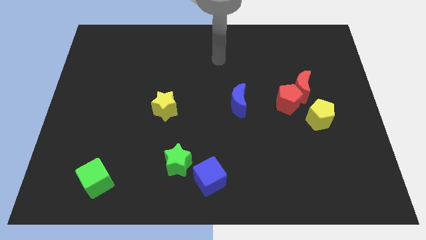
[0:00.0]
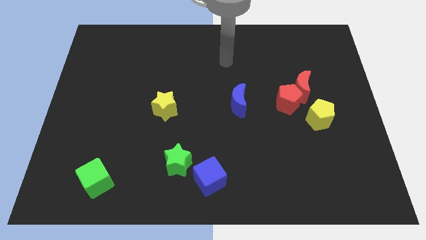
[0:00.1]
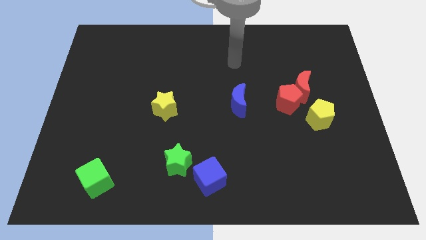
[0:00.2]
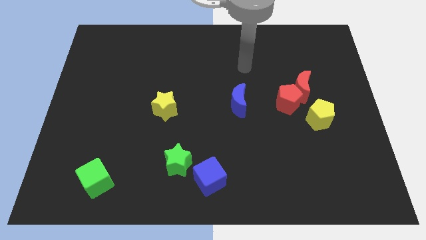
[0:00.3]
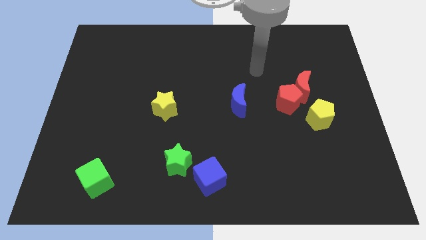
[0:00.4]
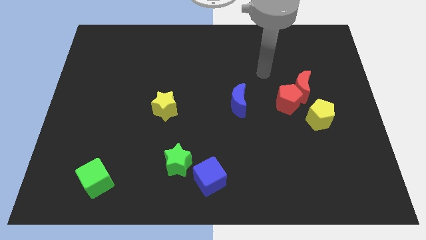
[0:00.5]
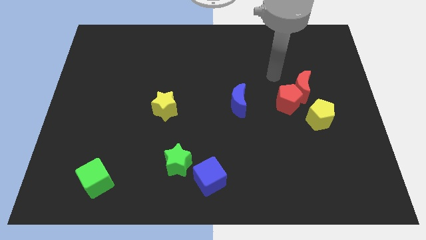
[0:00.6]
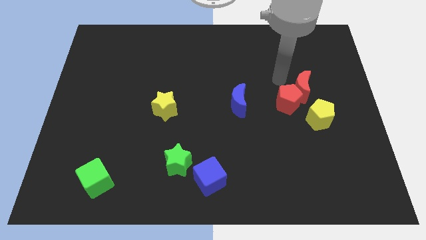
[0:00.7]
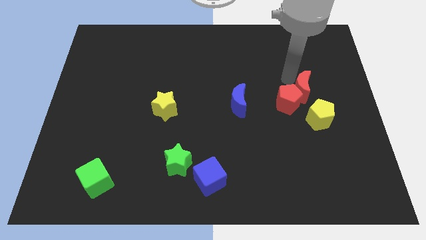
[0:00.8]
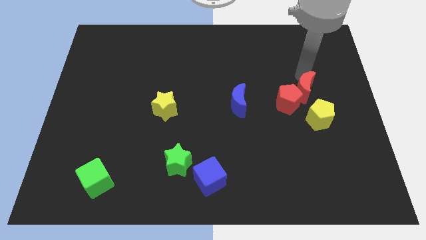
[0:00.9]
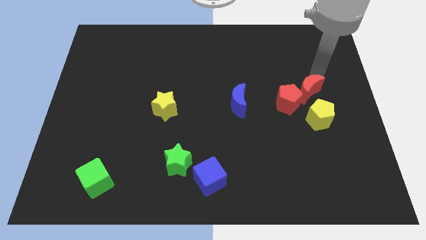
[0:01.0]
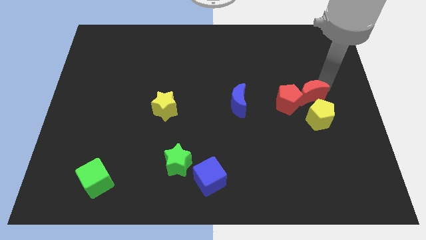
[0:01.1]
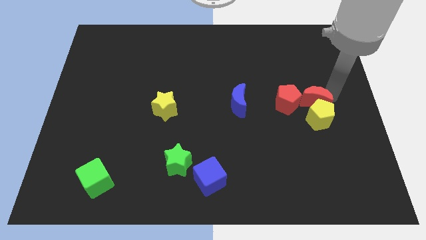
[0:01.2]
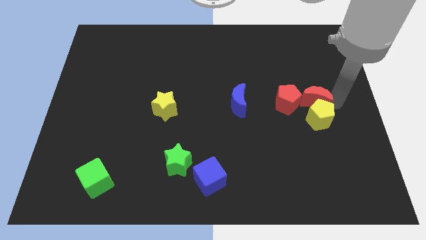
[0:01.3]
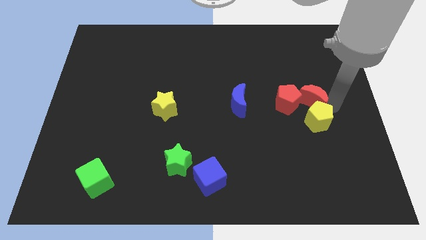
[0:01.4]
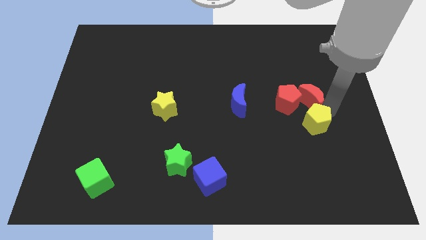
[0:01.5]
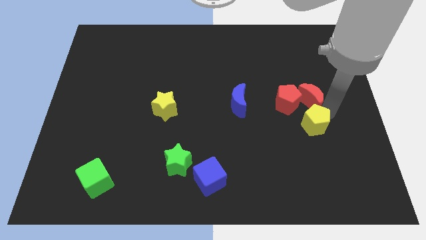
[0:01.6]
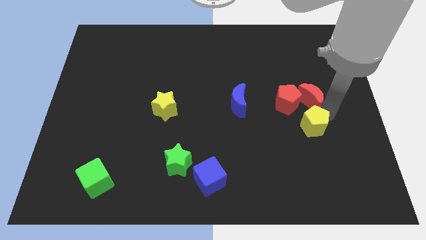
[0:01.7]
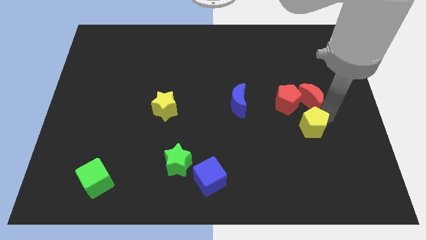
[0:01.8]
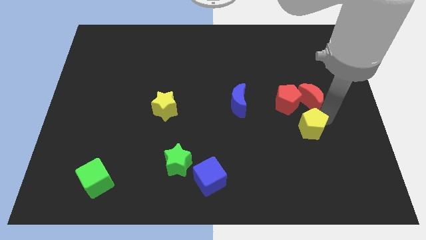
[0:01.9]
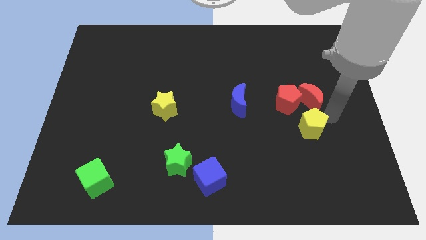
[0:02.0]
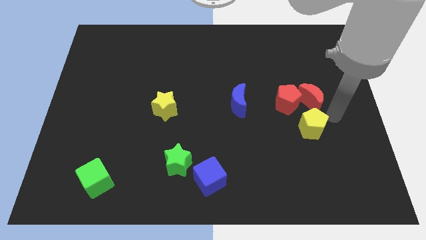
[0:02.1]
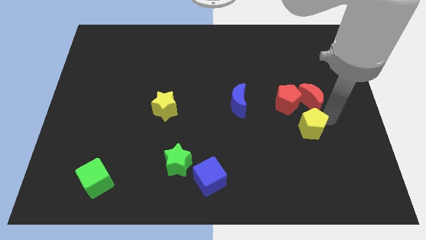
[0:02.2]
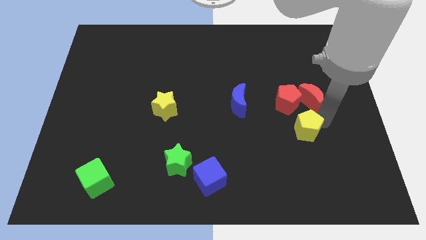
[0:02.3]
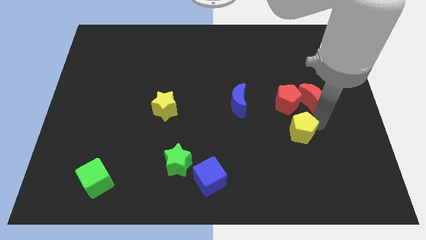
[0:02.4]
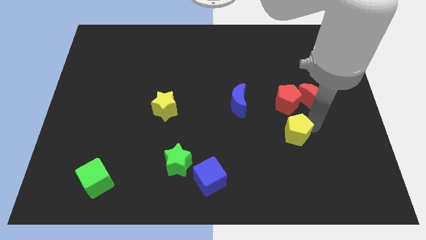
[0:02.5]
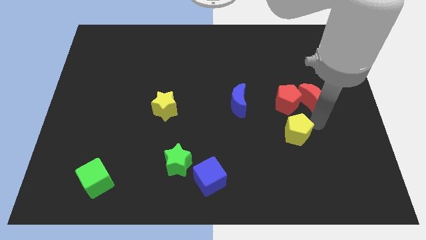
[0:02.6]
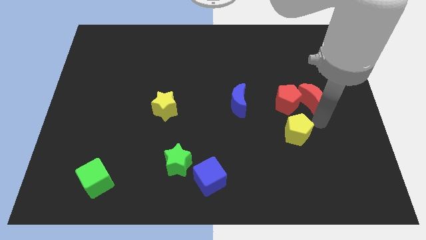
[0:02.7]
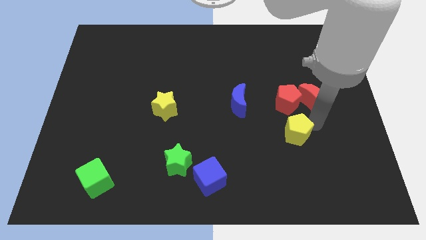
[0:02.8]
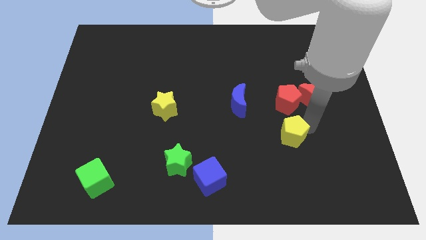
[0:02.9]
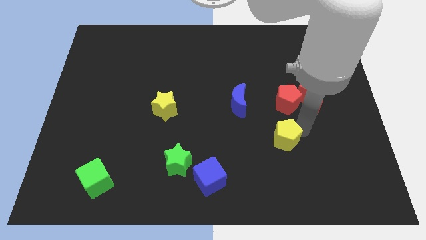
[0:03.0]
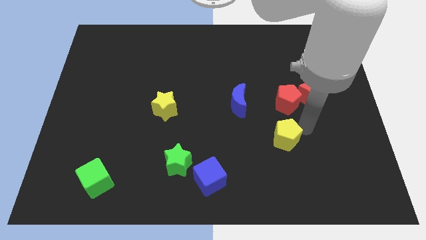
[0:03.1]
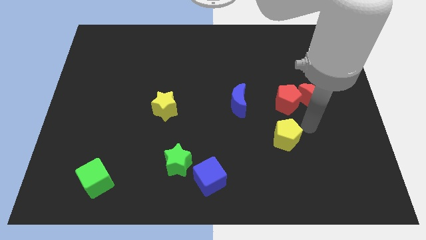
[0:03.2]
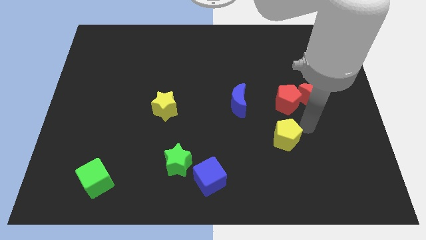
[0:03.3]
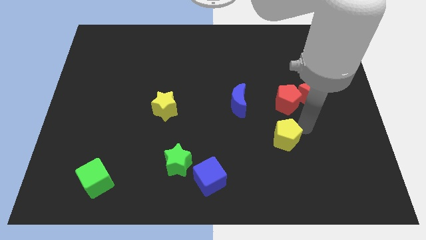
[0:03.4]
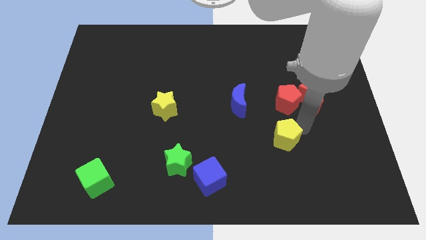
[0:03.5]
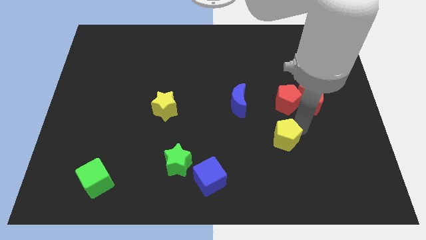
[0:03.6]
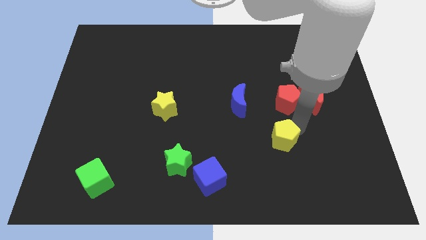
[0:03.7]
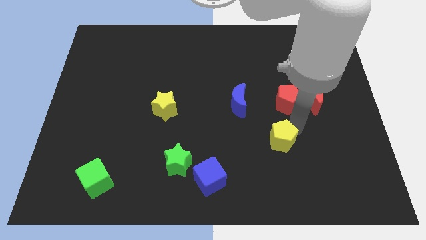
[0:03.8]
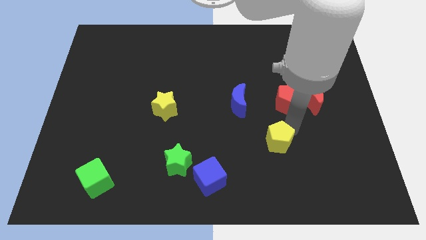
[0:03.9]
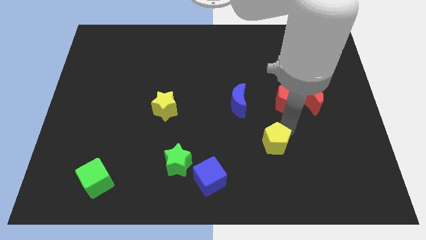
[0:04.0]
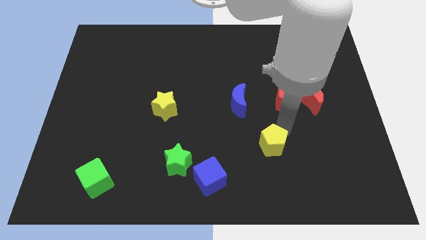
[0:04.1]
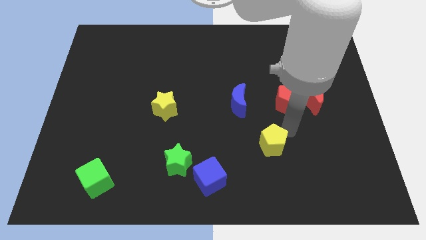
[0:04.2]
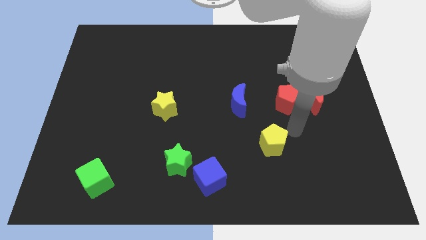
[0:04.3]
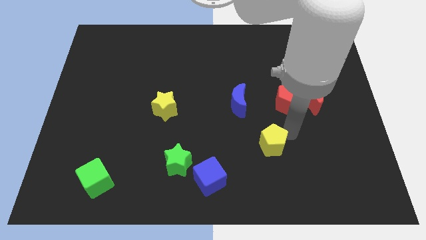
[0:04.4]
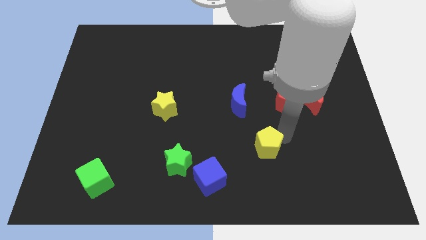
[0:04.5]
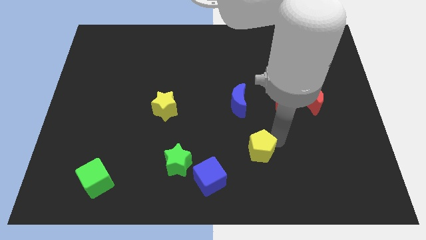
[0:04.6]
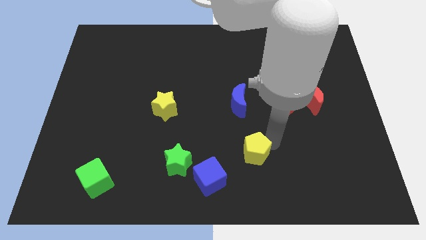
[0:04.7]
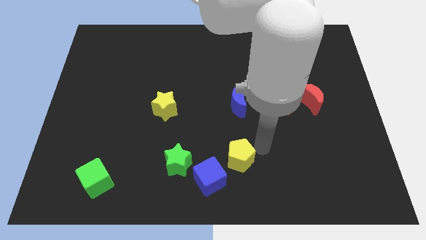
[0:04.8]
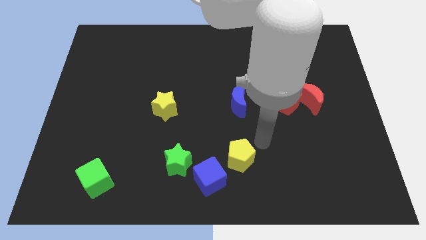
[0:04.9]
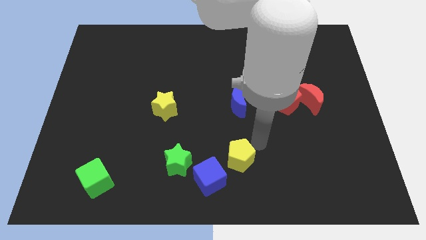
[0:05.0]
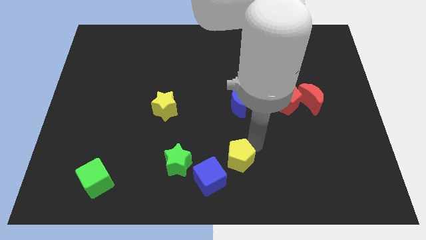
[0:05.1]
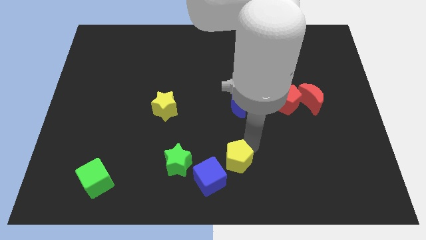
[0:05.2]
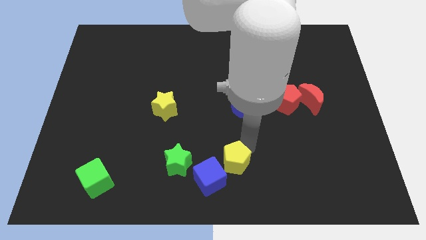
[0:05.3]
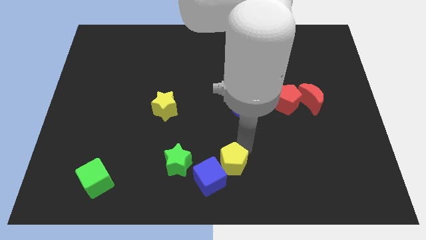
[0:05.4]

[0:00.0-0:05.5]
move the yellow pentagon towards the blue cube

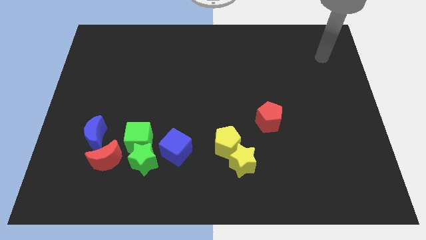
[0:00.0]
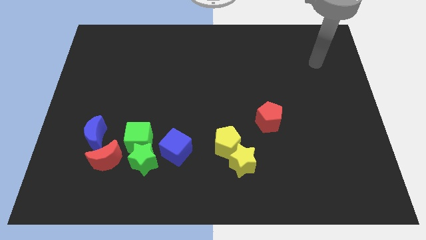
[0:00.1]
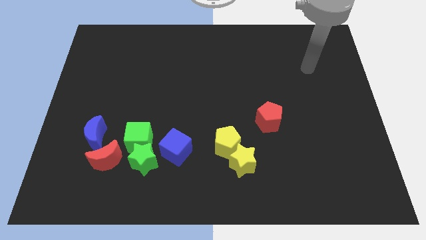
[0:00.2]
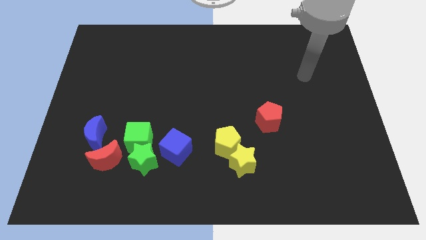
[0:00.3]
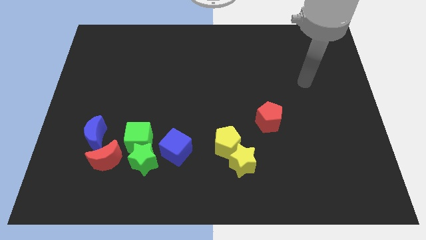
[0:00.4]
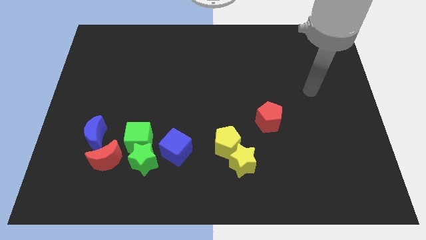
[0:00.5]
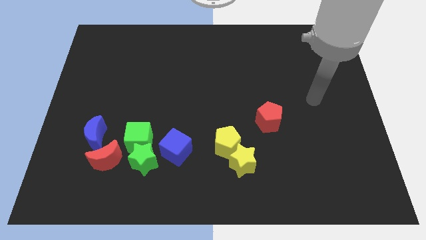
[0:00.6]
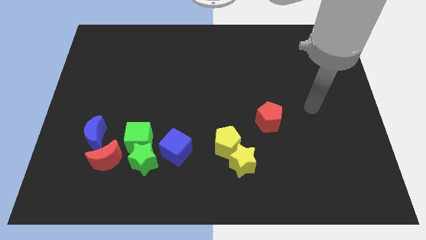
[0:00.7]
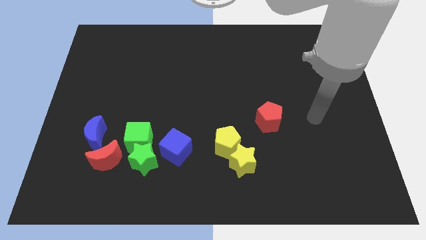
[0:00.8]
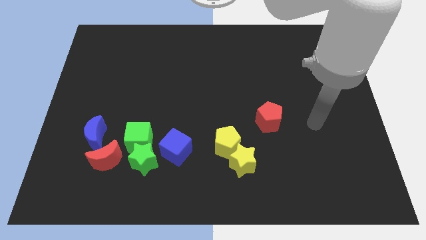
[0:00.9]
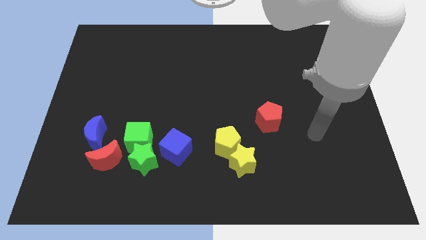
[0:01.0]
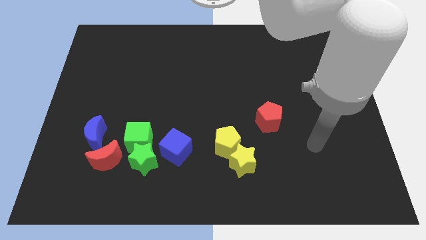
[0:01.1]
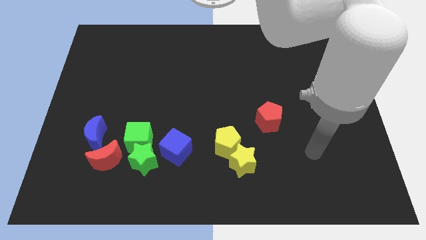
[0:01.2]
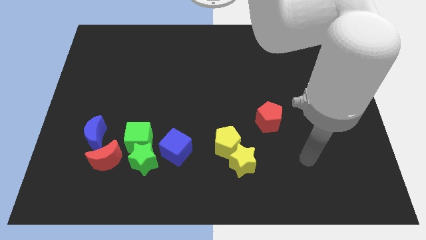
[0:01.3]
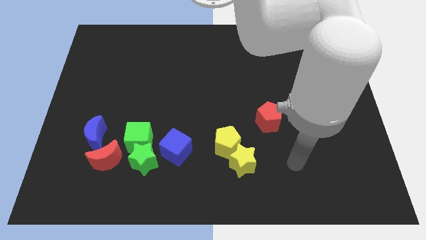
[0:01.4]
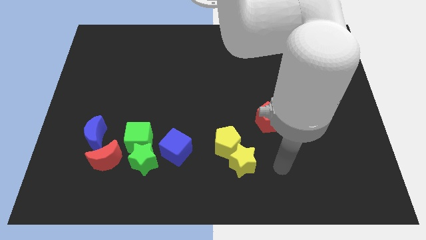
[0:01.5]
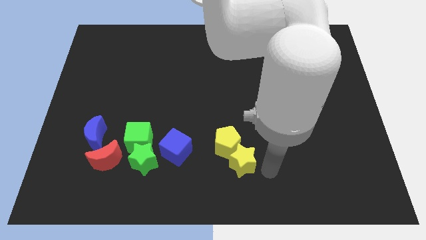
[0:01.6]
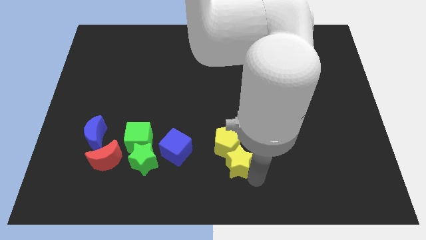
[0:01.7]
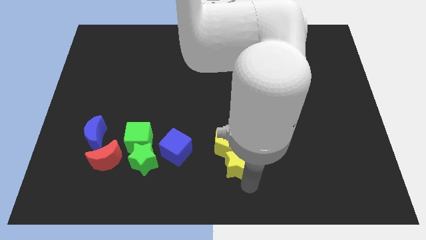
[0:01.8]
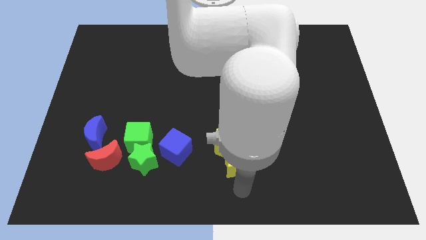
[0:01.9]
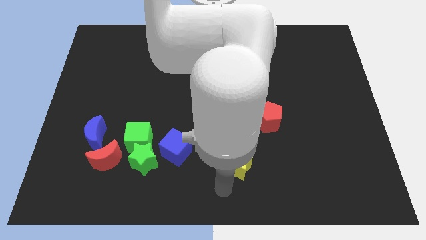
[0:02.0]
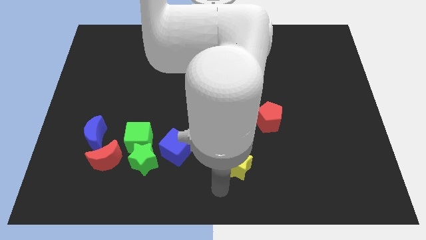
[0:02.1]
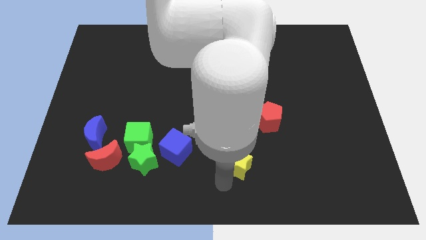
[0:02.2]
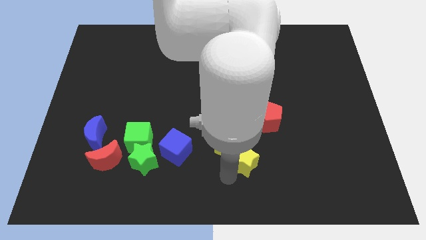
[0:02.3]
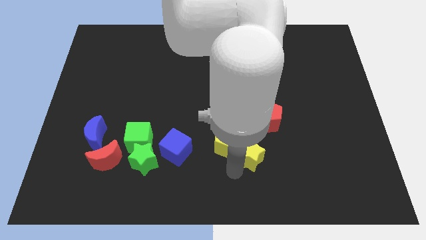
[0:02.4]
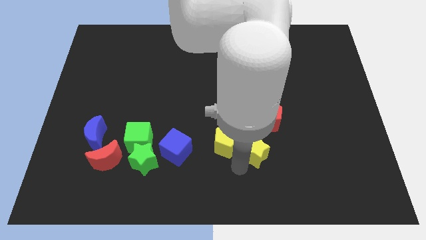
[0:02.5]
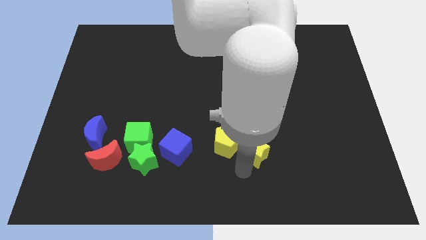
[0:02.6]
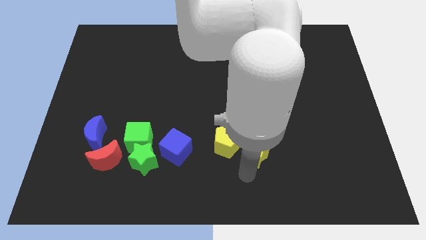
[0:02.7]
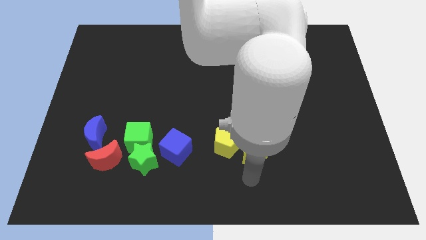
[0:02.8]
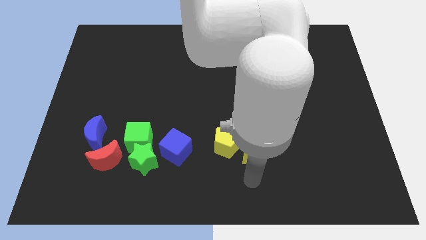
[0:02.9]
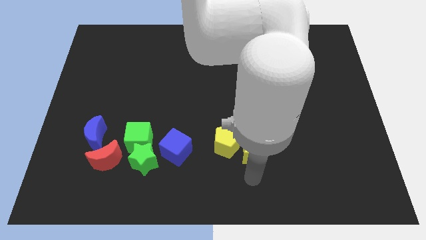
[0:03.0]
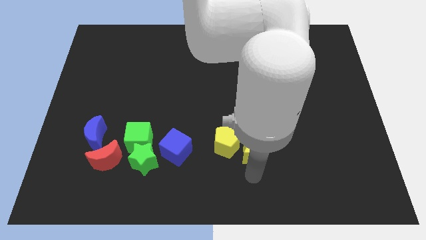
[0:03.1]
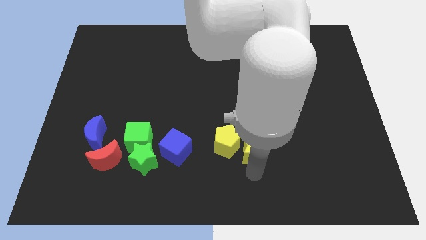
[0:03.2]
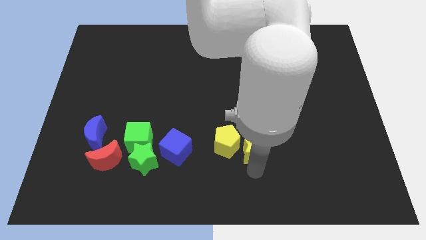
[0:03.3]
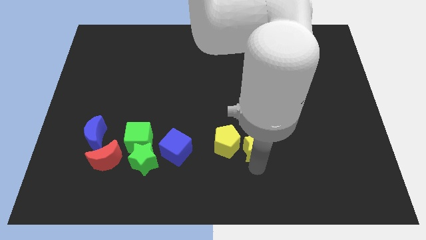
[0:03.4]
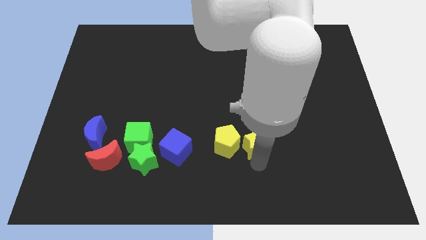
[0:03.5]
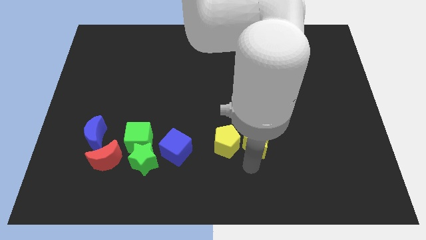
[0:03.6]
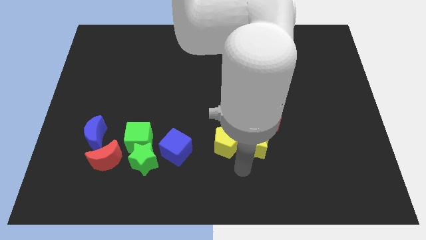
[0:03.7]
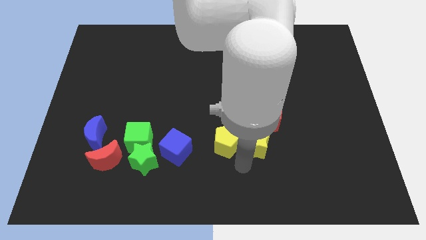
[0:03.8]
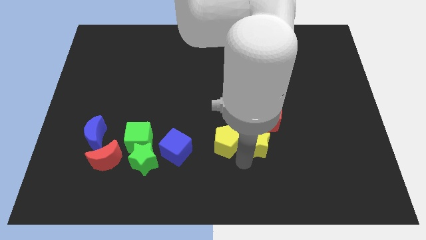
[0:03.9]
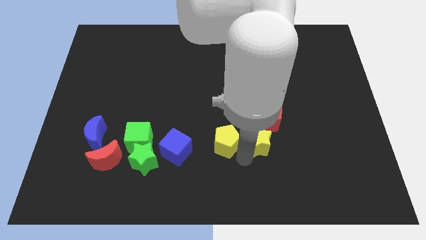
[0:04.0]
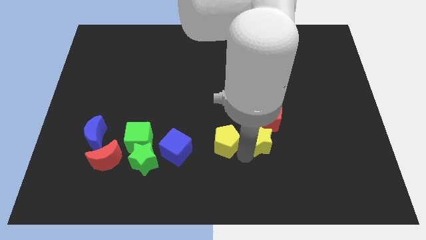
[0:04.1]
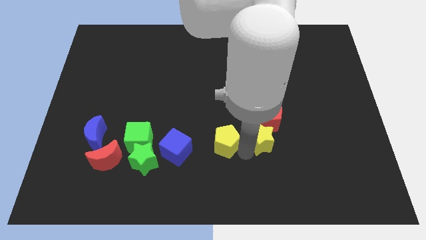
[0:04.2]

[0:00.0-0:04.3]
put the yellow star close to the red pentagon
